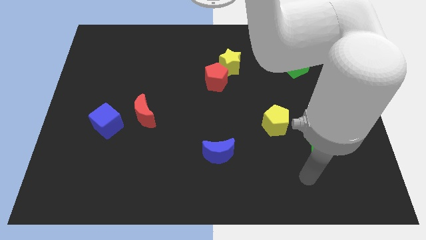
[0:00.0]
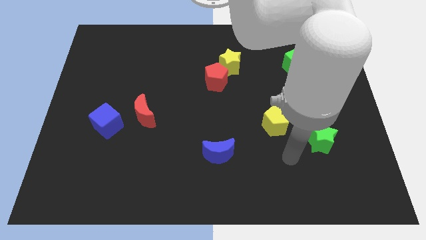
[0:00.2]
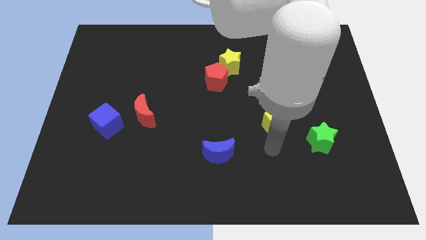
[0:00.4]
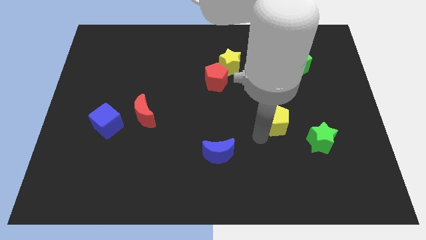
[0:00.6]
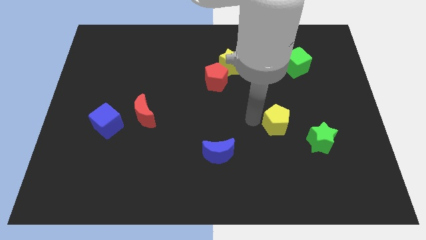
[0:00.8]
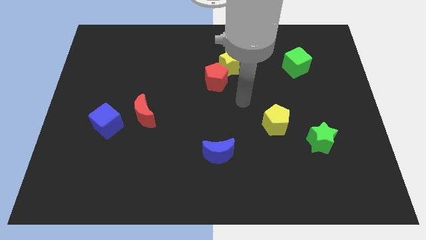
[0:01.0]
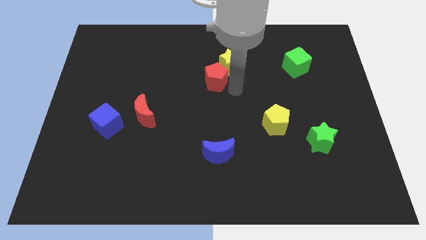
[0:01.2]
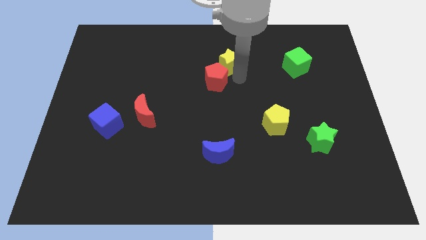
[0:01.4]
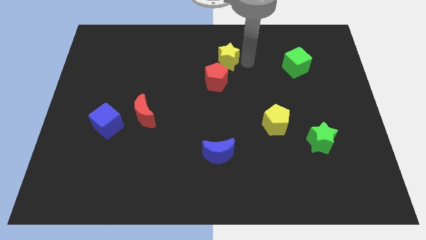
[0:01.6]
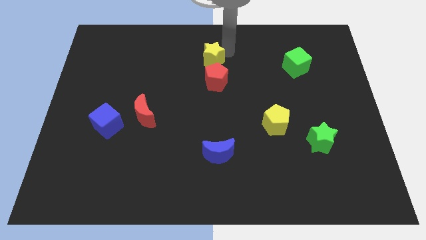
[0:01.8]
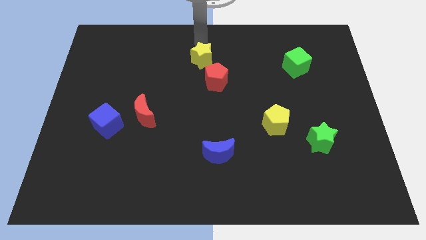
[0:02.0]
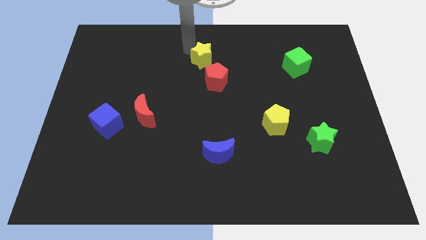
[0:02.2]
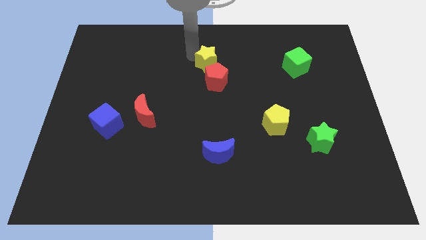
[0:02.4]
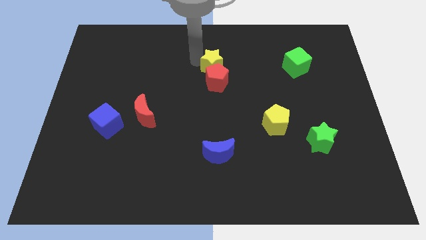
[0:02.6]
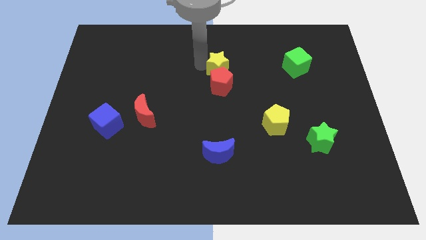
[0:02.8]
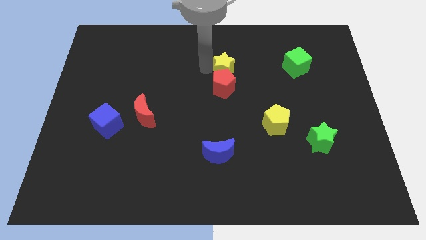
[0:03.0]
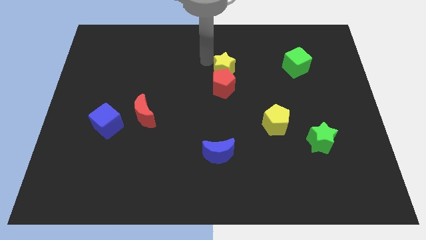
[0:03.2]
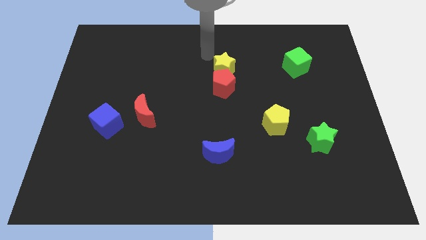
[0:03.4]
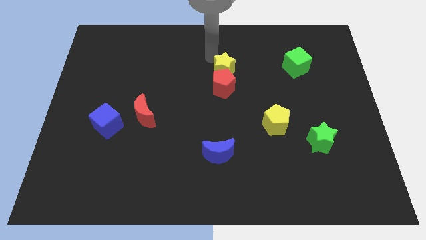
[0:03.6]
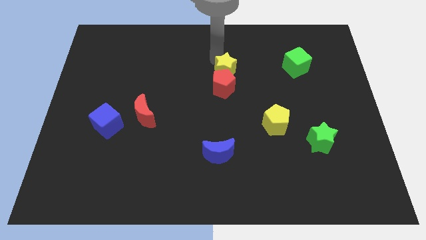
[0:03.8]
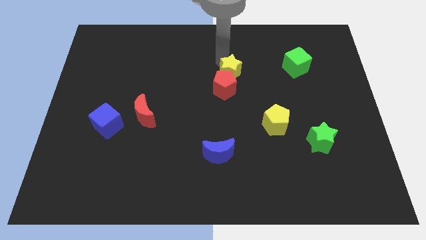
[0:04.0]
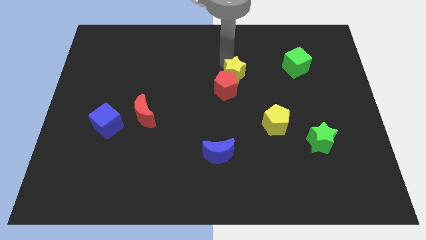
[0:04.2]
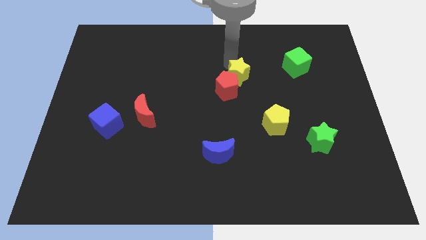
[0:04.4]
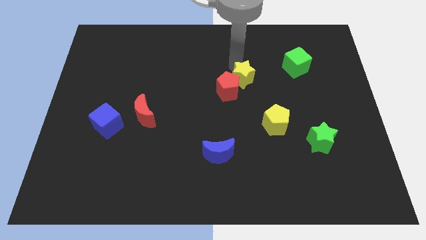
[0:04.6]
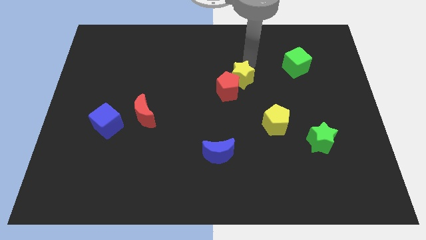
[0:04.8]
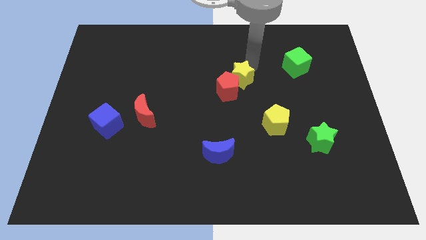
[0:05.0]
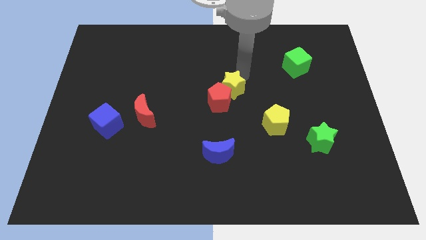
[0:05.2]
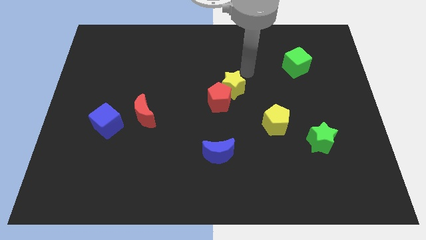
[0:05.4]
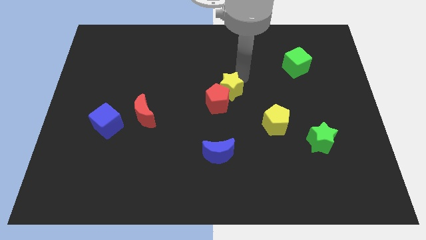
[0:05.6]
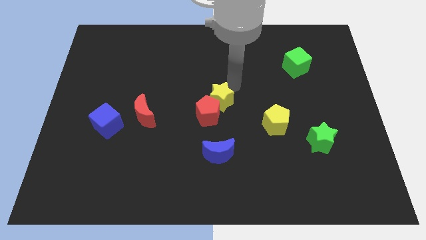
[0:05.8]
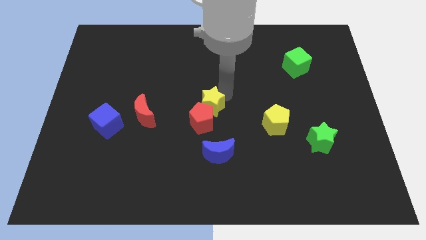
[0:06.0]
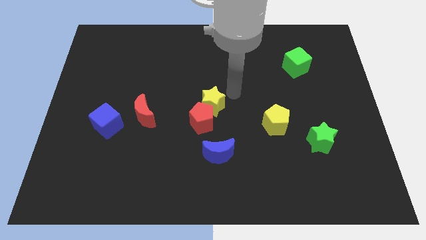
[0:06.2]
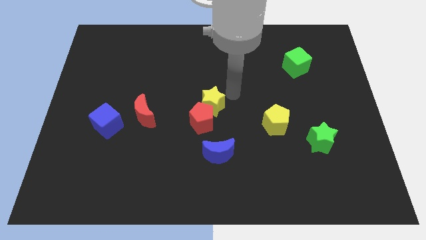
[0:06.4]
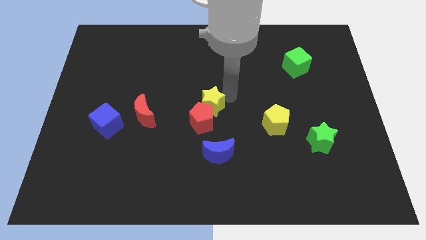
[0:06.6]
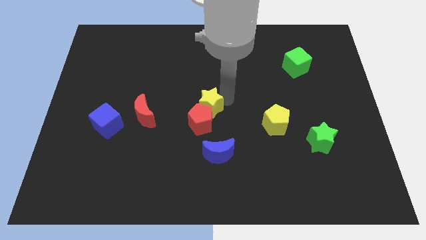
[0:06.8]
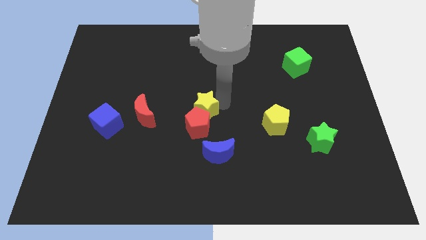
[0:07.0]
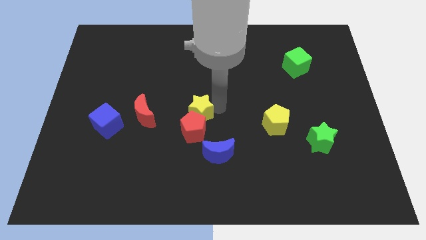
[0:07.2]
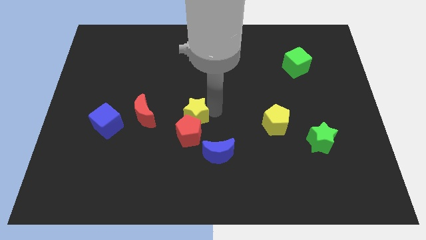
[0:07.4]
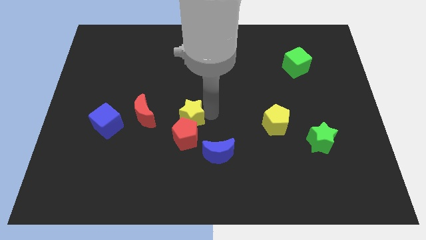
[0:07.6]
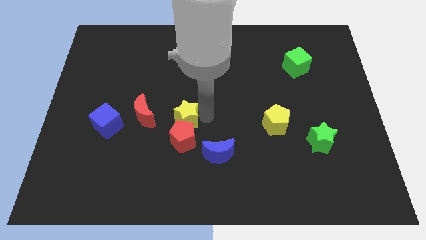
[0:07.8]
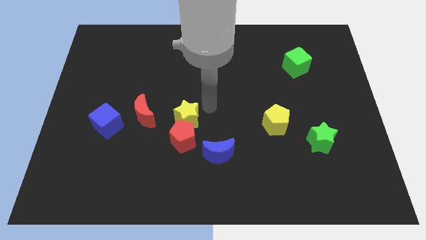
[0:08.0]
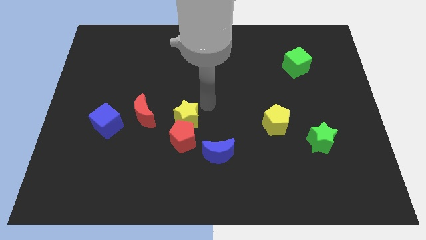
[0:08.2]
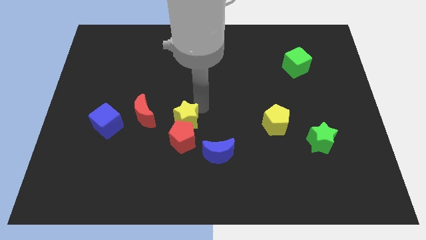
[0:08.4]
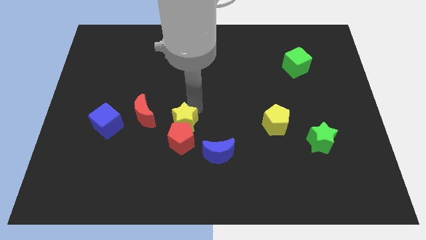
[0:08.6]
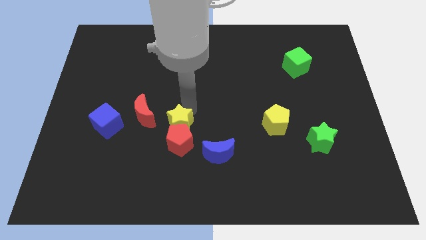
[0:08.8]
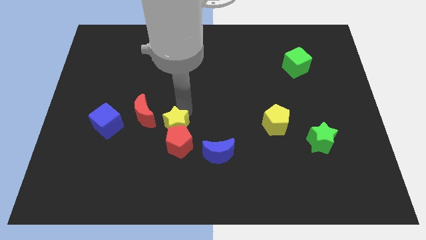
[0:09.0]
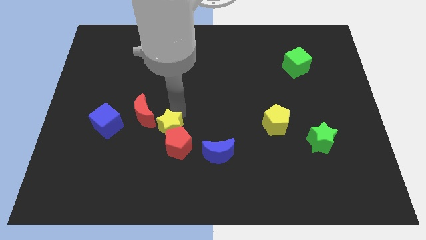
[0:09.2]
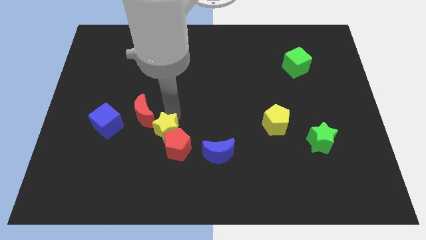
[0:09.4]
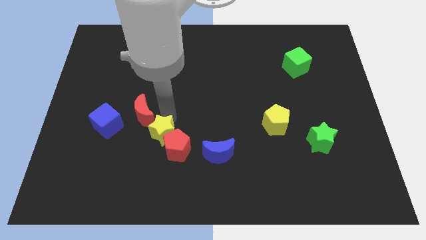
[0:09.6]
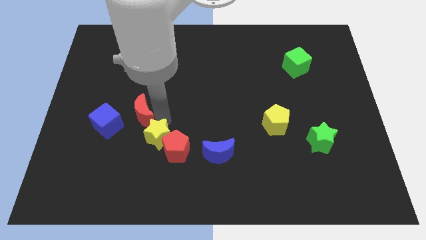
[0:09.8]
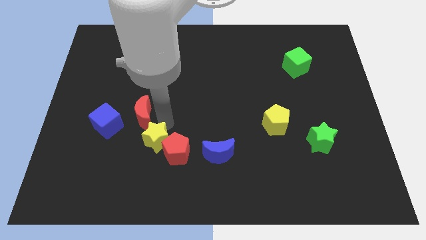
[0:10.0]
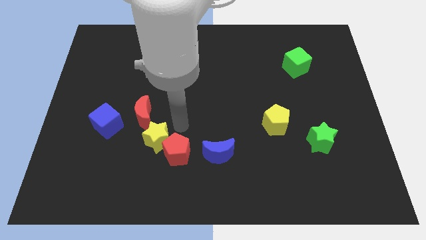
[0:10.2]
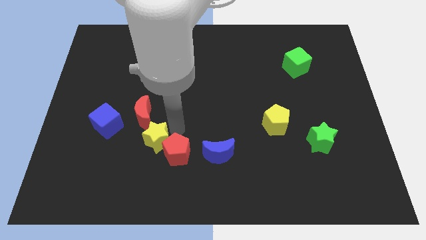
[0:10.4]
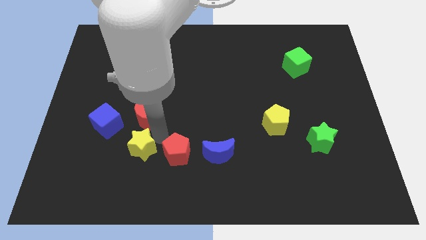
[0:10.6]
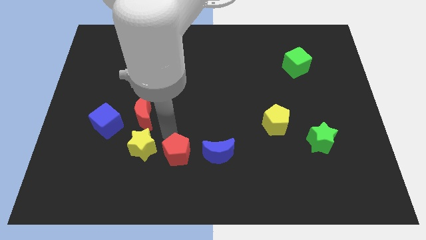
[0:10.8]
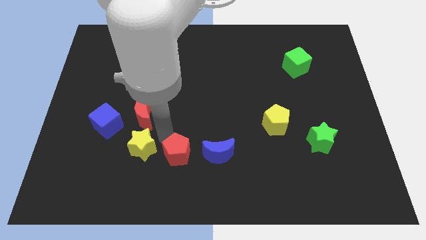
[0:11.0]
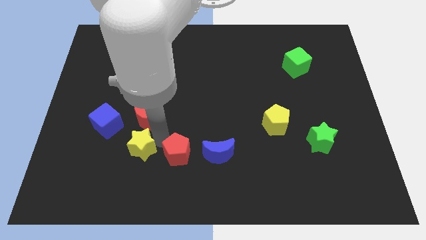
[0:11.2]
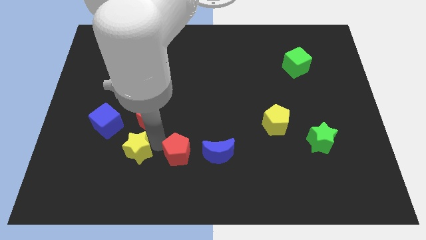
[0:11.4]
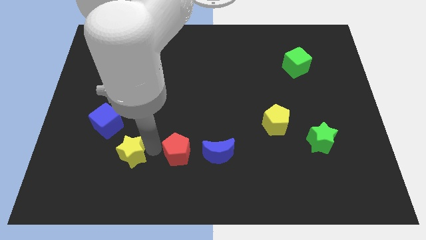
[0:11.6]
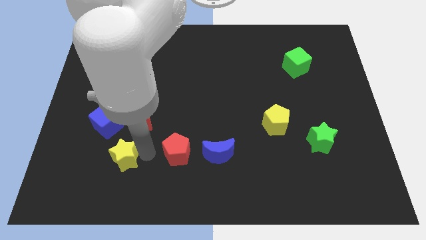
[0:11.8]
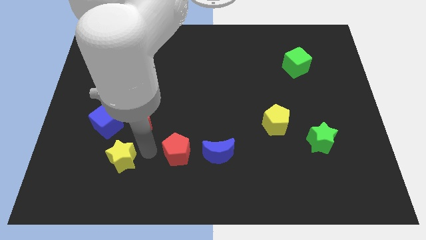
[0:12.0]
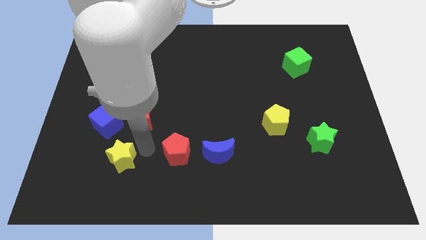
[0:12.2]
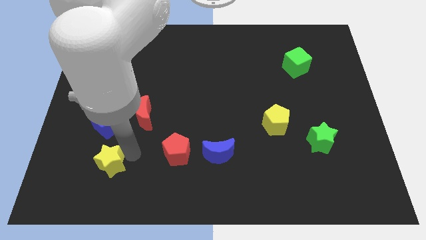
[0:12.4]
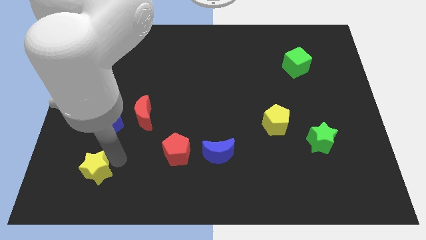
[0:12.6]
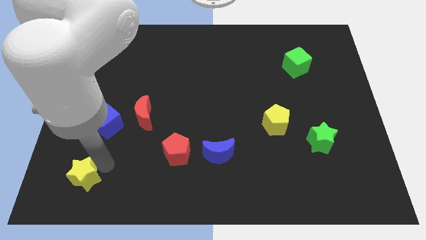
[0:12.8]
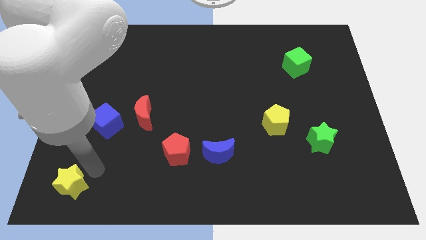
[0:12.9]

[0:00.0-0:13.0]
slide the yellow star to the bottom left of the board

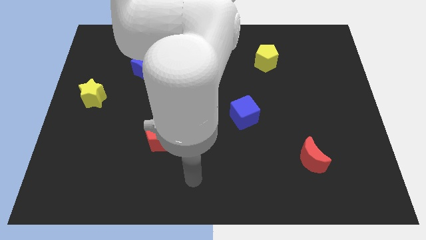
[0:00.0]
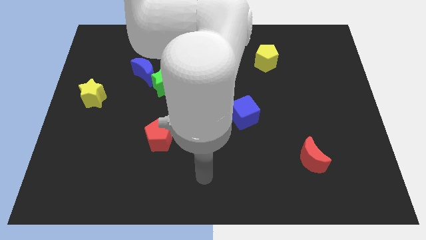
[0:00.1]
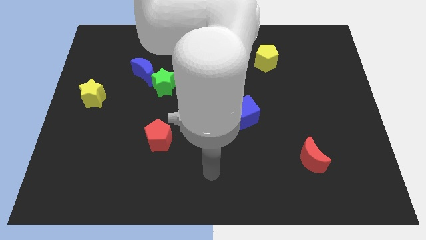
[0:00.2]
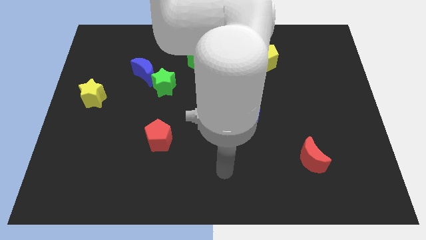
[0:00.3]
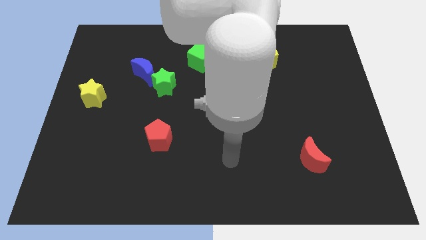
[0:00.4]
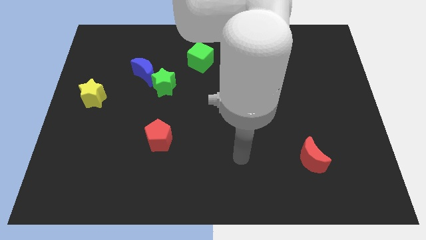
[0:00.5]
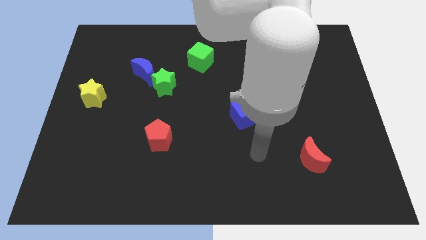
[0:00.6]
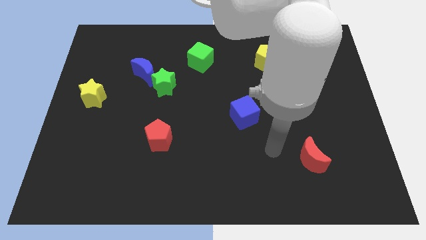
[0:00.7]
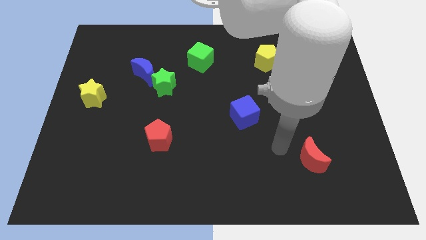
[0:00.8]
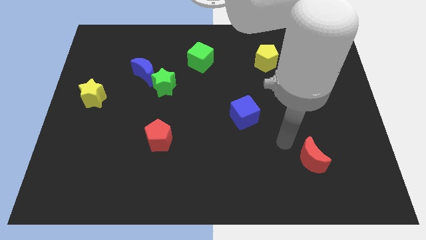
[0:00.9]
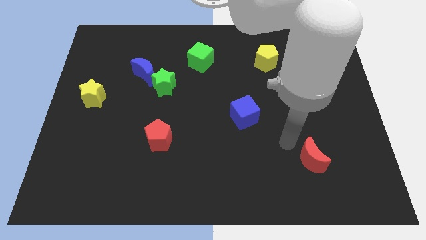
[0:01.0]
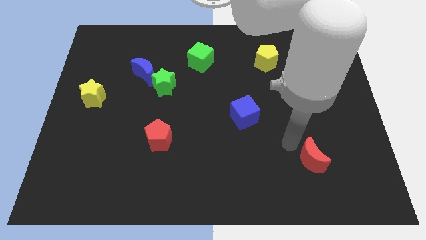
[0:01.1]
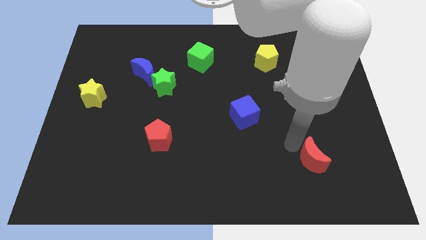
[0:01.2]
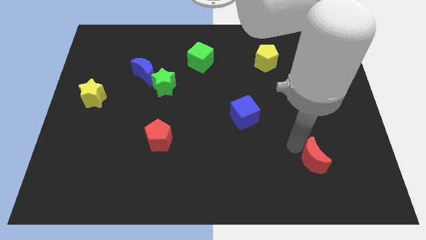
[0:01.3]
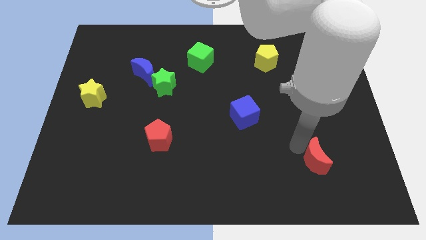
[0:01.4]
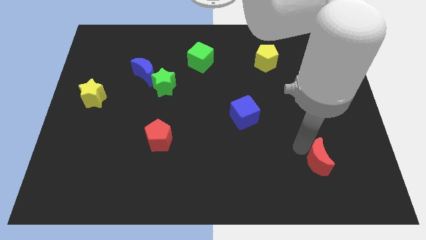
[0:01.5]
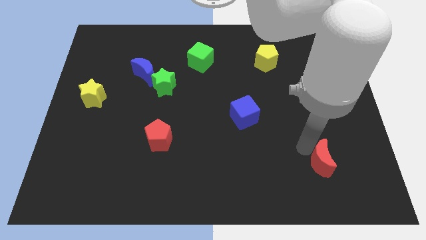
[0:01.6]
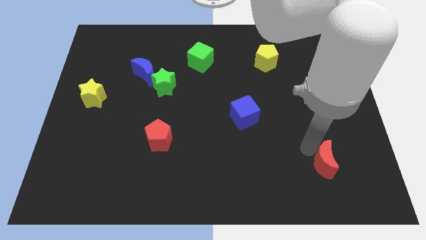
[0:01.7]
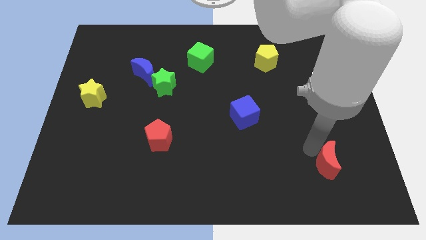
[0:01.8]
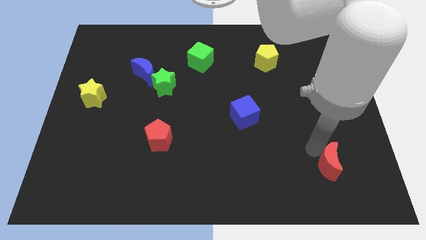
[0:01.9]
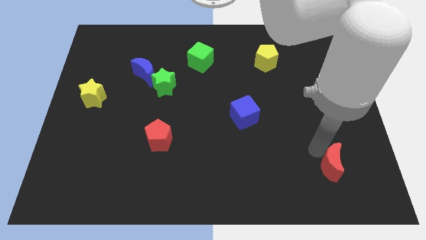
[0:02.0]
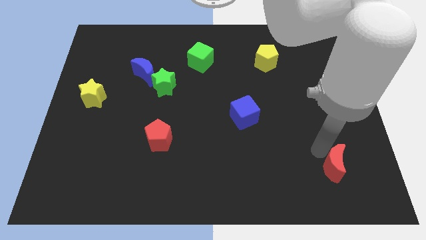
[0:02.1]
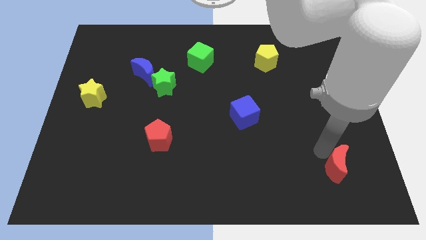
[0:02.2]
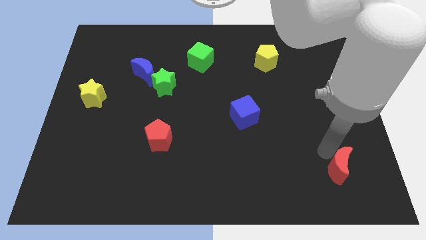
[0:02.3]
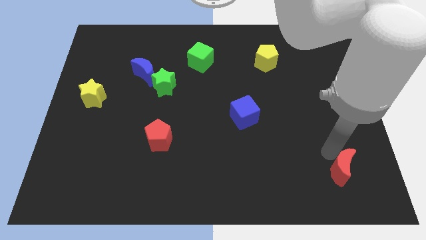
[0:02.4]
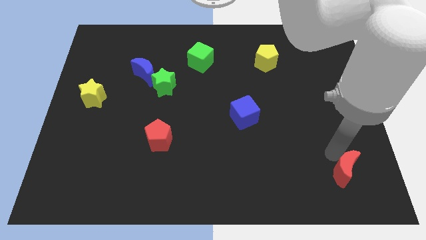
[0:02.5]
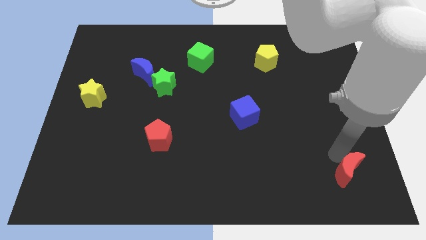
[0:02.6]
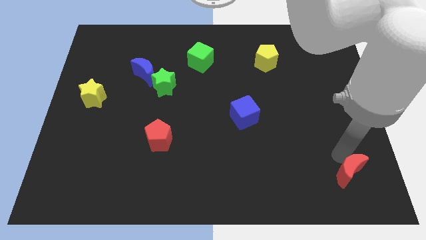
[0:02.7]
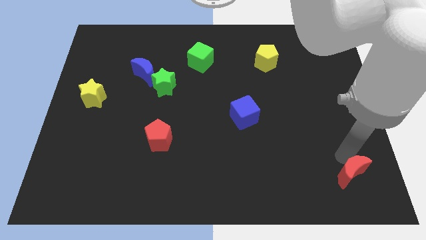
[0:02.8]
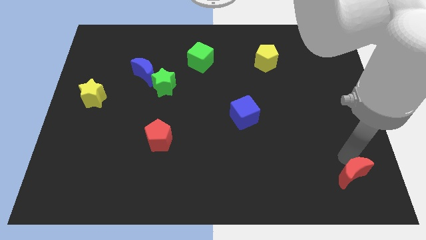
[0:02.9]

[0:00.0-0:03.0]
push the red moon to the bottom right of the board
